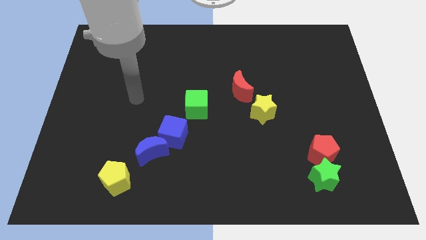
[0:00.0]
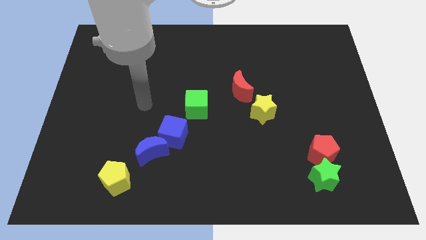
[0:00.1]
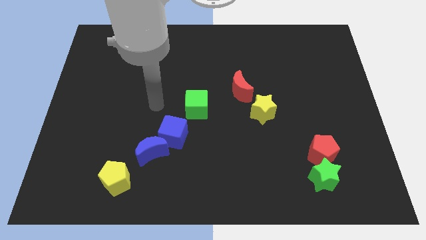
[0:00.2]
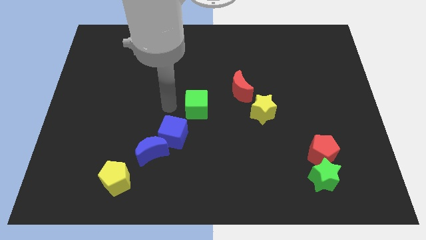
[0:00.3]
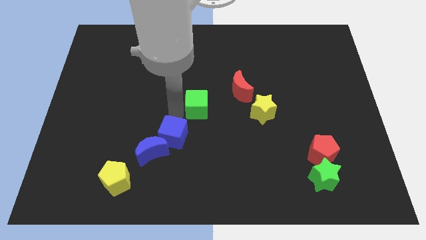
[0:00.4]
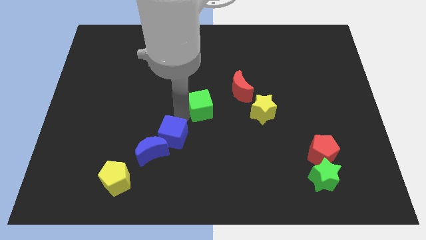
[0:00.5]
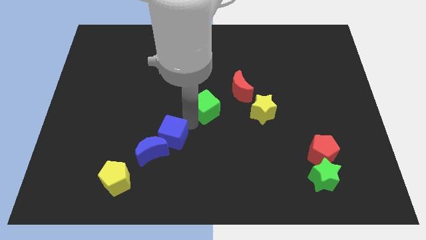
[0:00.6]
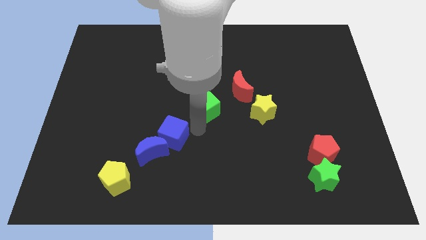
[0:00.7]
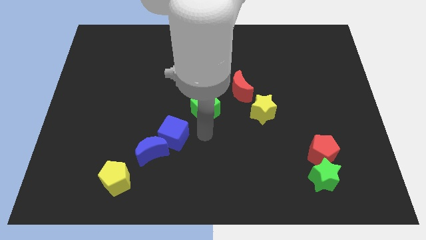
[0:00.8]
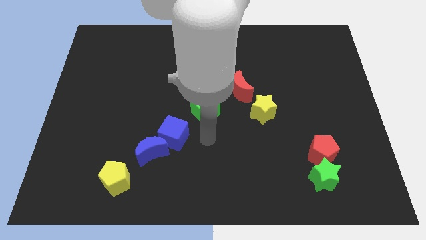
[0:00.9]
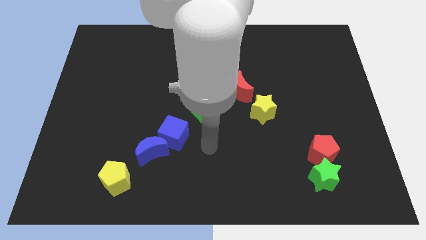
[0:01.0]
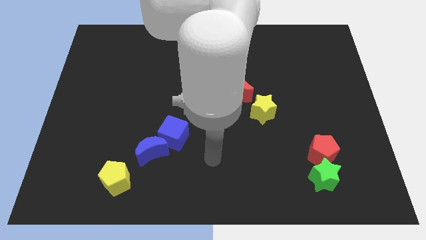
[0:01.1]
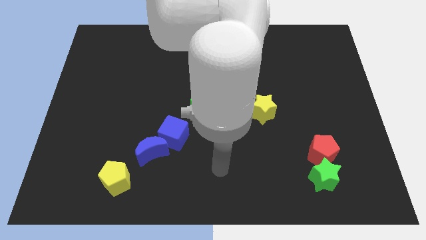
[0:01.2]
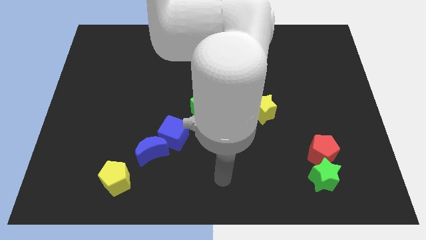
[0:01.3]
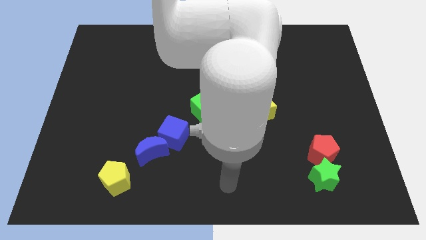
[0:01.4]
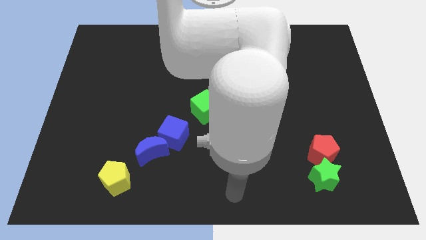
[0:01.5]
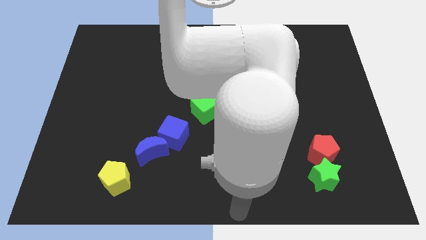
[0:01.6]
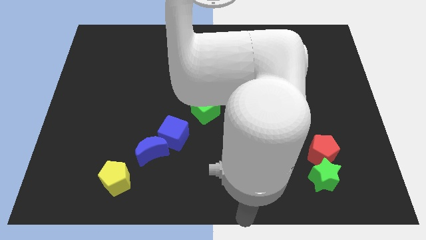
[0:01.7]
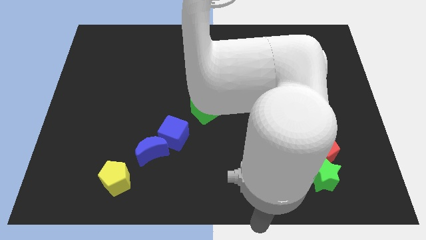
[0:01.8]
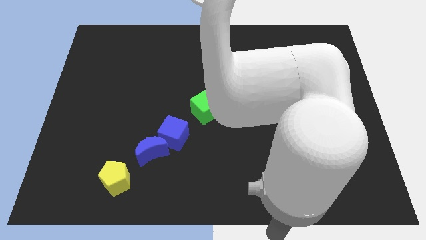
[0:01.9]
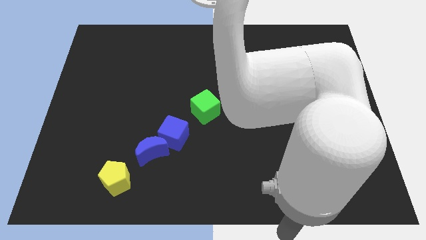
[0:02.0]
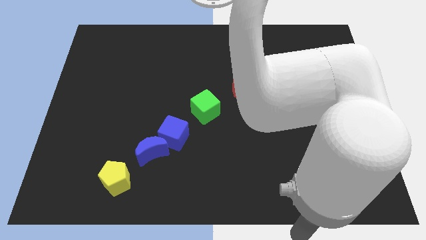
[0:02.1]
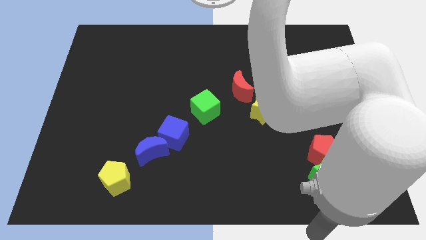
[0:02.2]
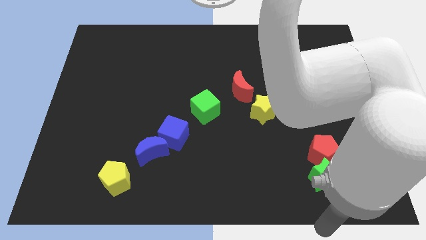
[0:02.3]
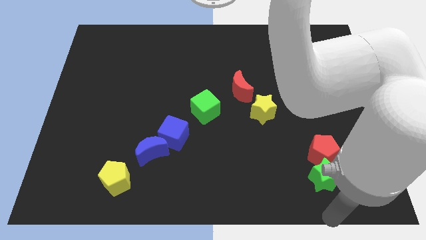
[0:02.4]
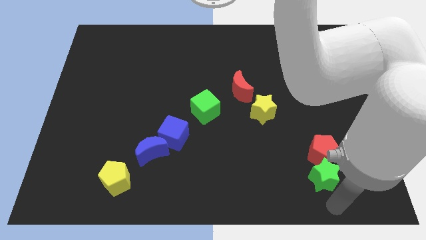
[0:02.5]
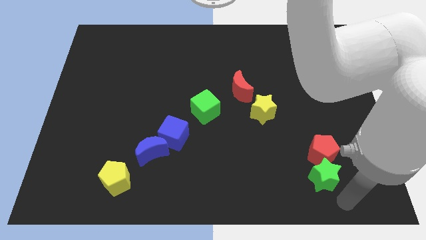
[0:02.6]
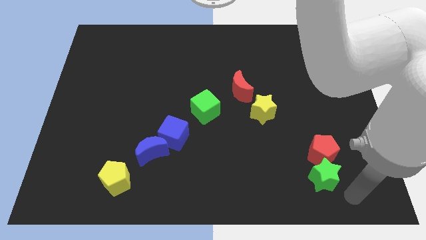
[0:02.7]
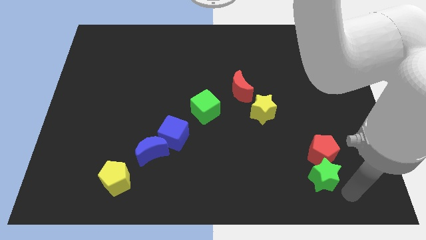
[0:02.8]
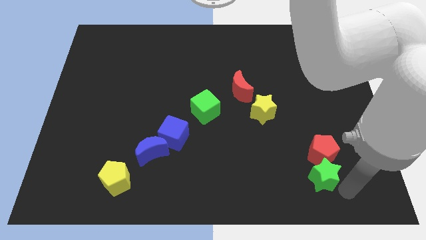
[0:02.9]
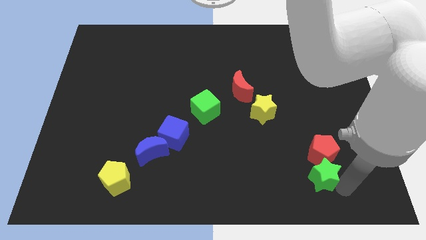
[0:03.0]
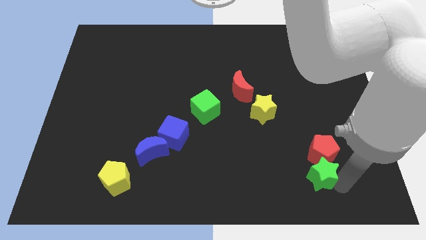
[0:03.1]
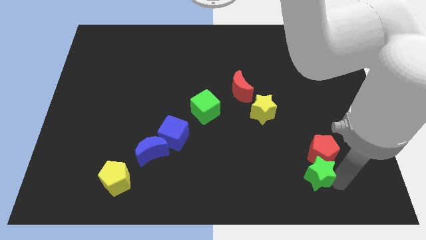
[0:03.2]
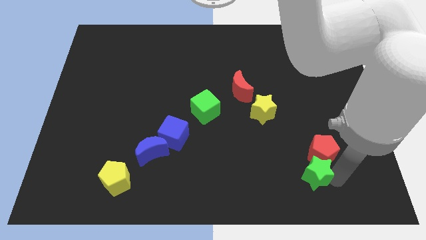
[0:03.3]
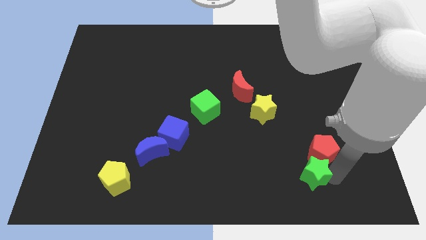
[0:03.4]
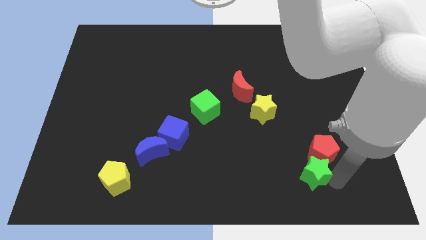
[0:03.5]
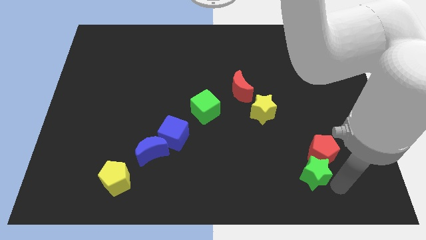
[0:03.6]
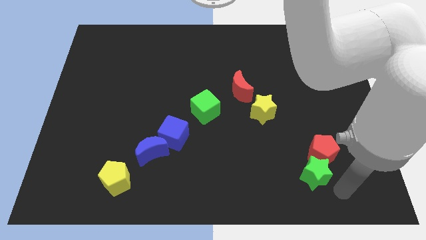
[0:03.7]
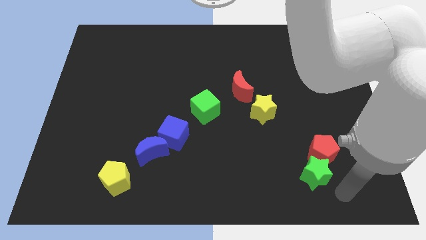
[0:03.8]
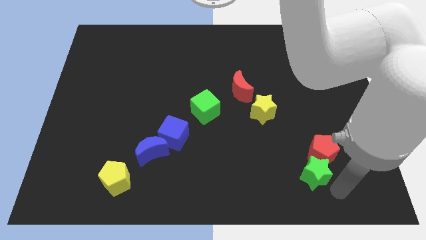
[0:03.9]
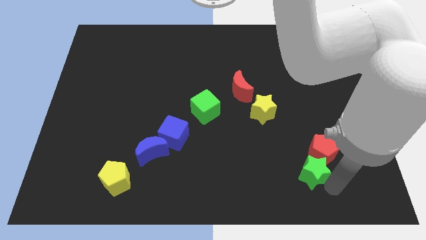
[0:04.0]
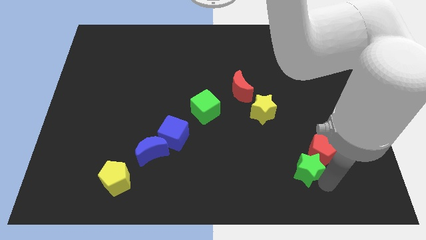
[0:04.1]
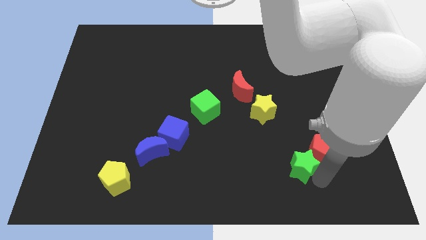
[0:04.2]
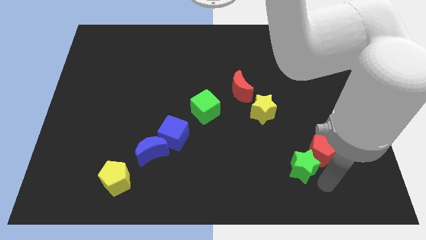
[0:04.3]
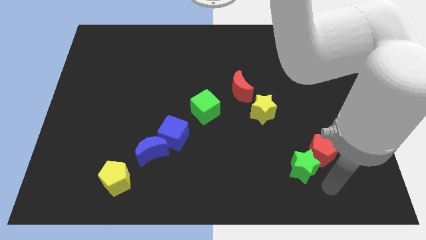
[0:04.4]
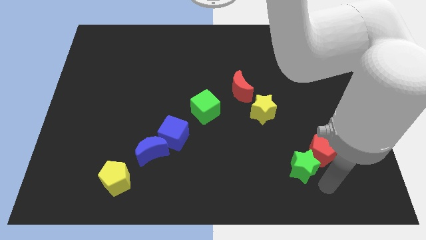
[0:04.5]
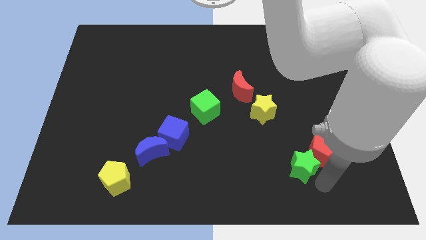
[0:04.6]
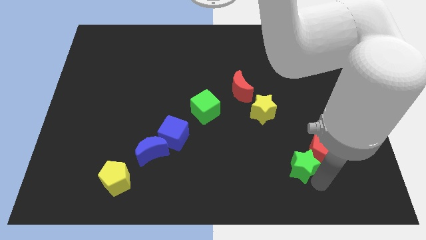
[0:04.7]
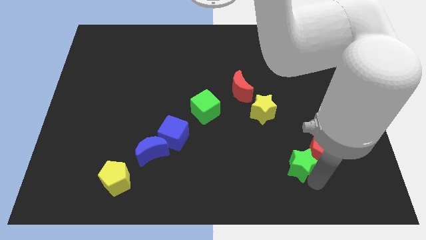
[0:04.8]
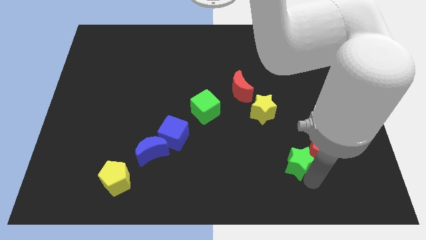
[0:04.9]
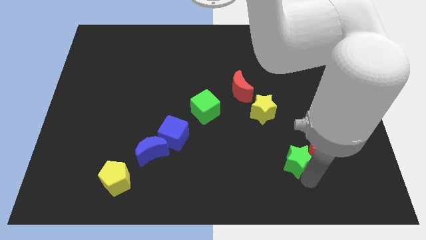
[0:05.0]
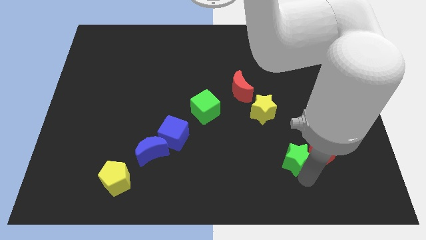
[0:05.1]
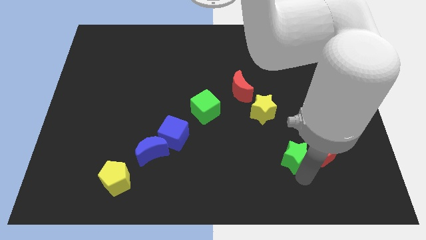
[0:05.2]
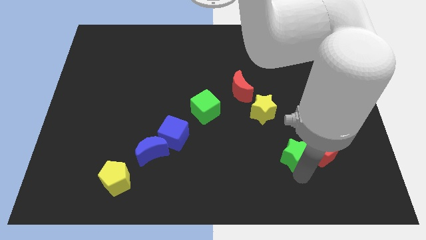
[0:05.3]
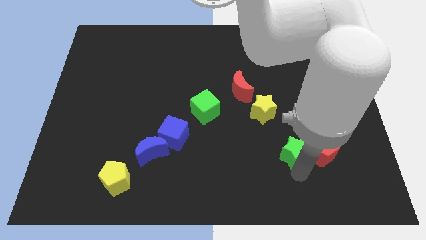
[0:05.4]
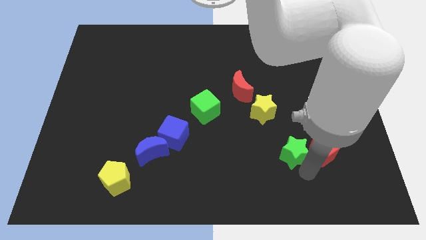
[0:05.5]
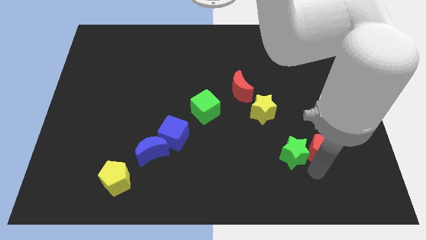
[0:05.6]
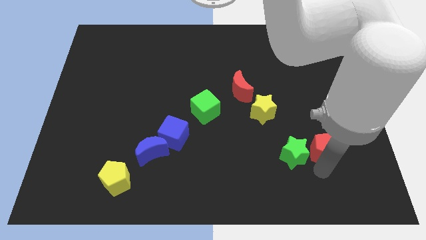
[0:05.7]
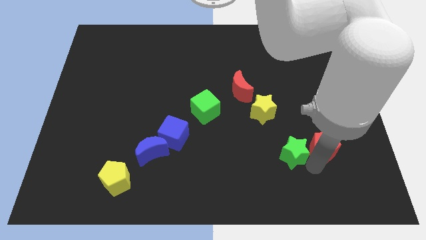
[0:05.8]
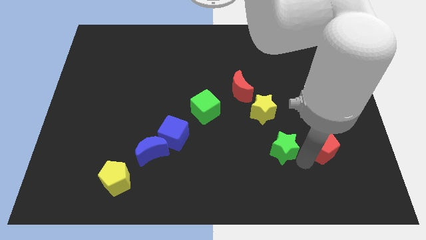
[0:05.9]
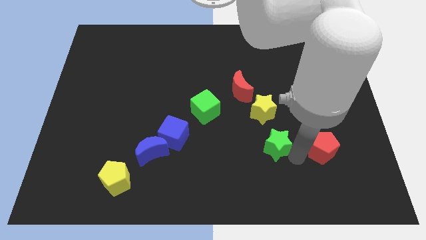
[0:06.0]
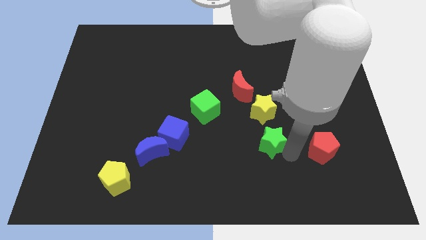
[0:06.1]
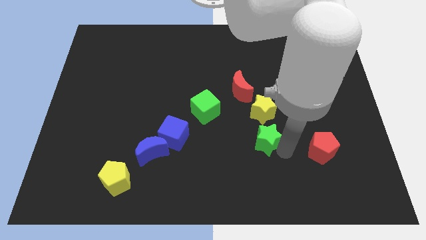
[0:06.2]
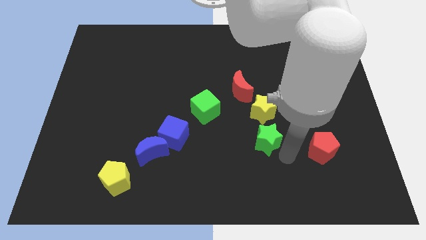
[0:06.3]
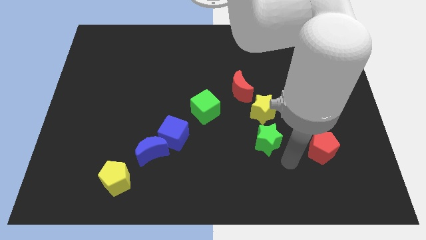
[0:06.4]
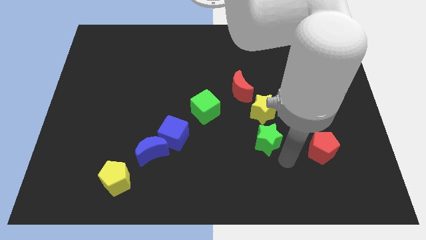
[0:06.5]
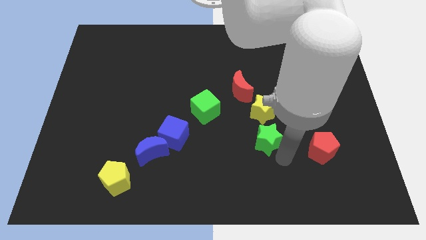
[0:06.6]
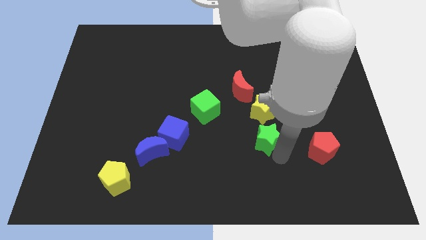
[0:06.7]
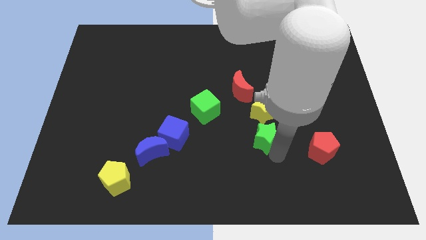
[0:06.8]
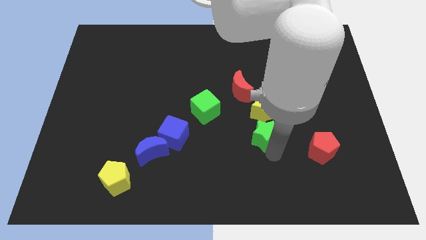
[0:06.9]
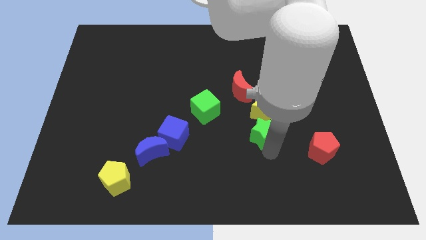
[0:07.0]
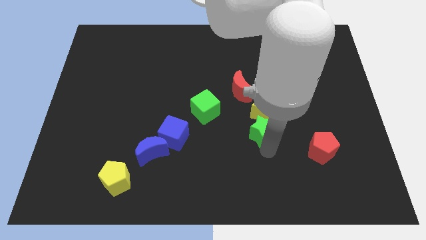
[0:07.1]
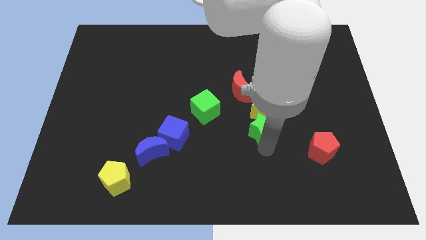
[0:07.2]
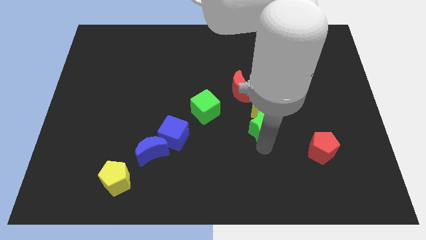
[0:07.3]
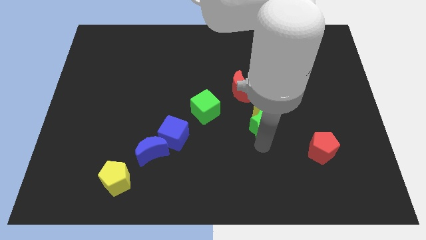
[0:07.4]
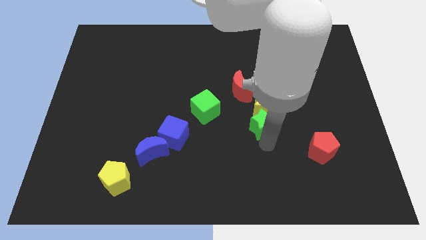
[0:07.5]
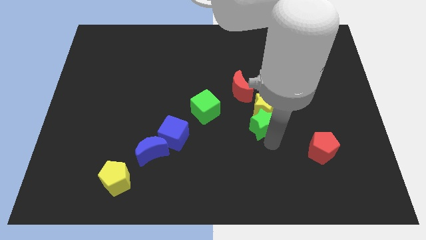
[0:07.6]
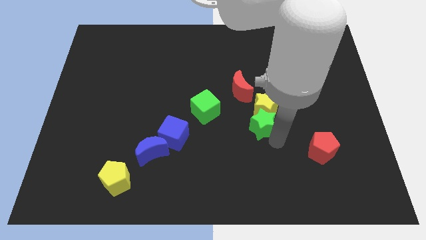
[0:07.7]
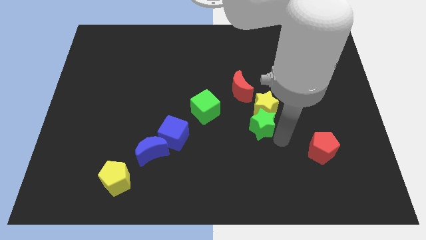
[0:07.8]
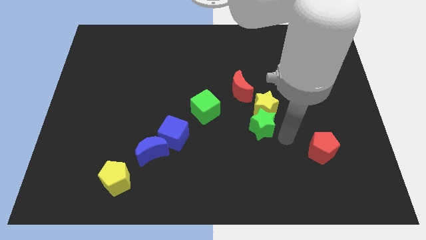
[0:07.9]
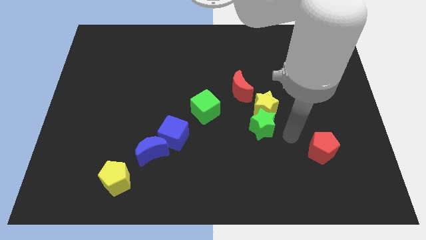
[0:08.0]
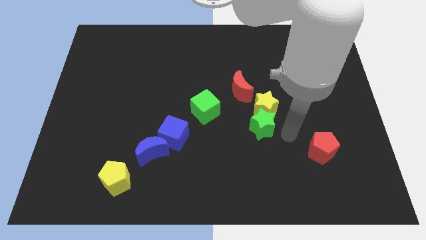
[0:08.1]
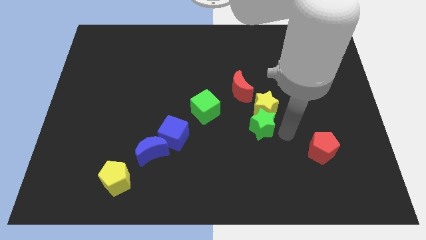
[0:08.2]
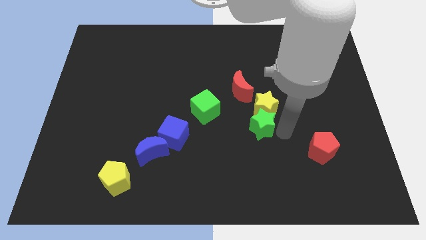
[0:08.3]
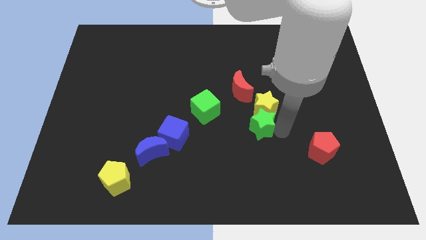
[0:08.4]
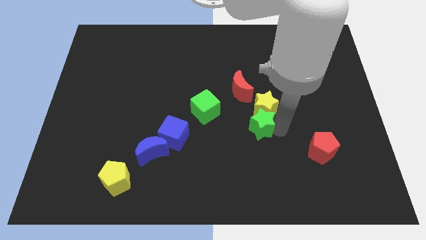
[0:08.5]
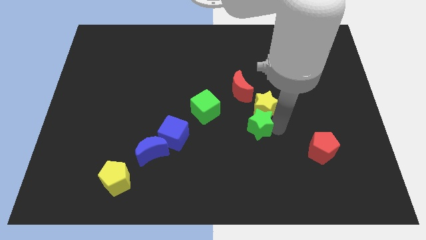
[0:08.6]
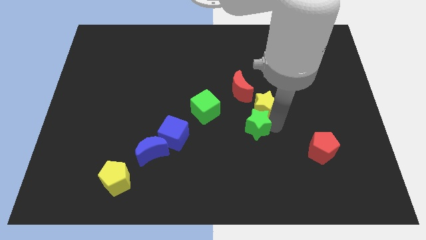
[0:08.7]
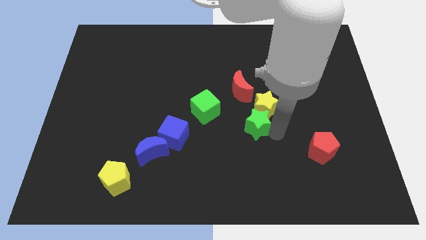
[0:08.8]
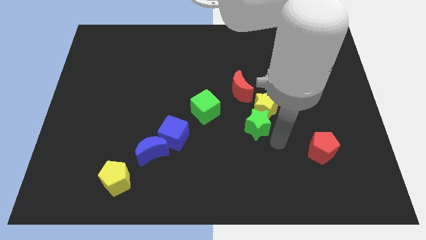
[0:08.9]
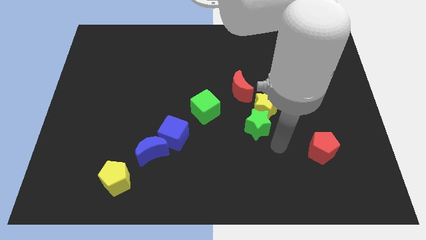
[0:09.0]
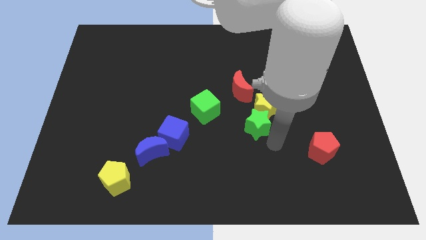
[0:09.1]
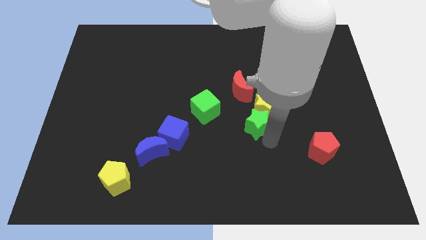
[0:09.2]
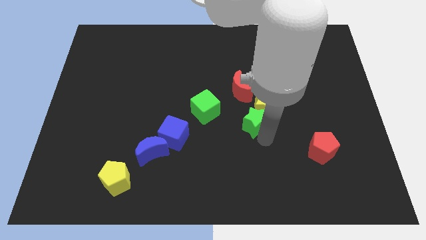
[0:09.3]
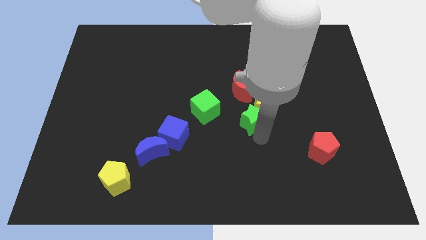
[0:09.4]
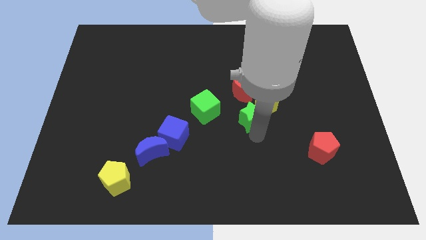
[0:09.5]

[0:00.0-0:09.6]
push the green star upwards and to the left
